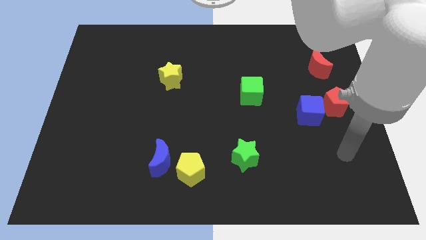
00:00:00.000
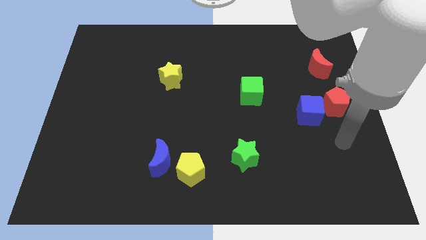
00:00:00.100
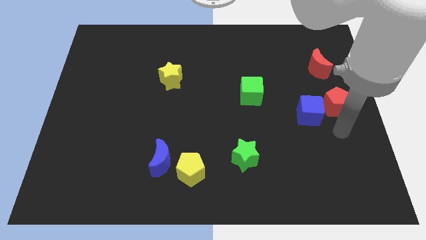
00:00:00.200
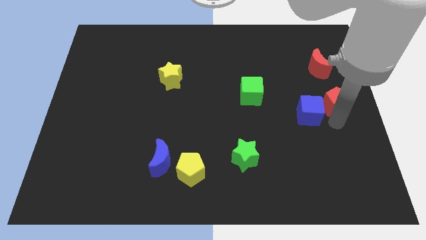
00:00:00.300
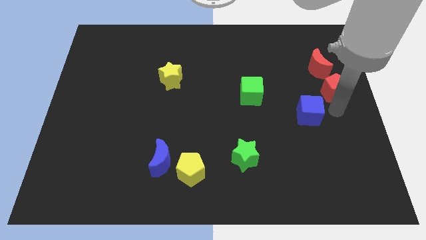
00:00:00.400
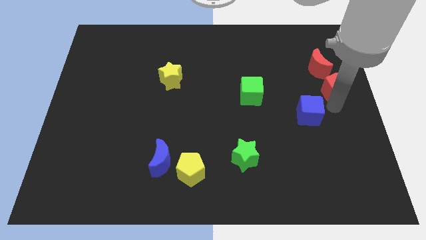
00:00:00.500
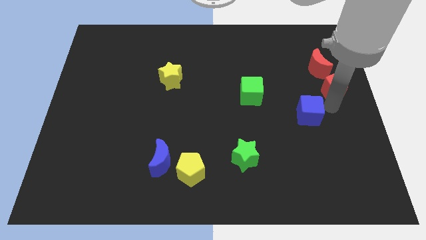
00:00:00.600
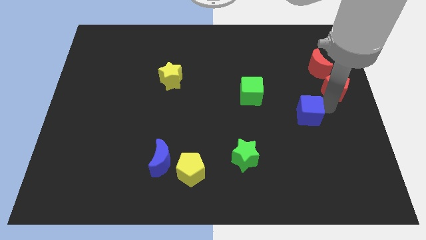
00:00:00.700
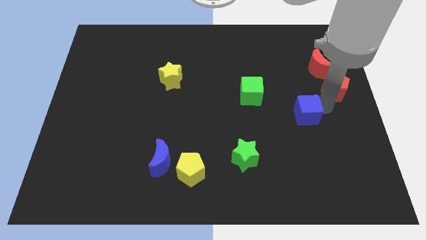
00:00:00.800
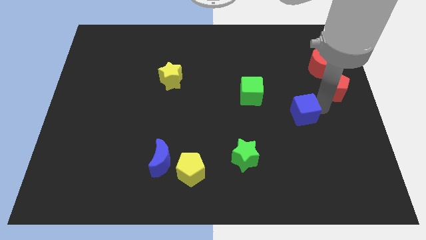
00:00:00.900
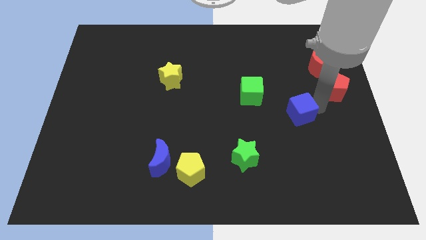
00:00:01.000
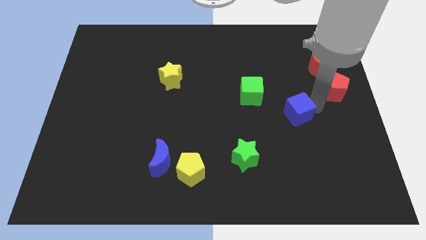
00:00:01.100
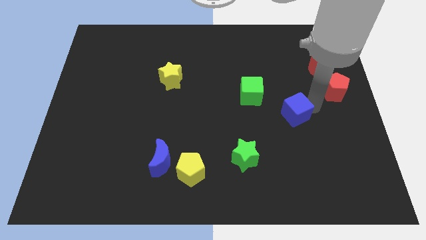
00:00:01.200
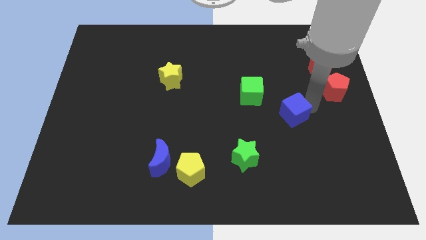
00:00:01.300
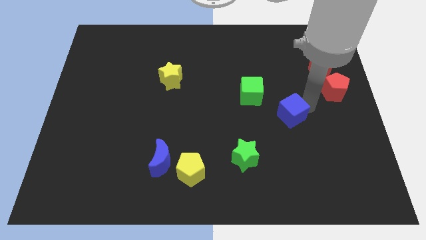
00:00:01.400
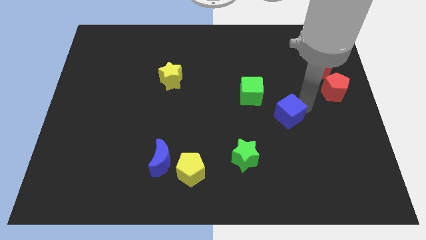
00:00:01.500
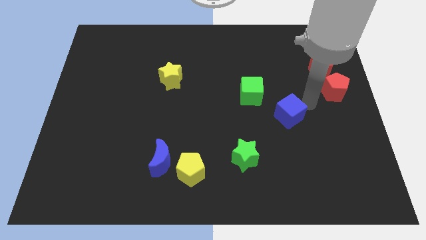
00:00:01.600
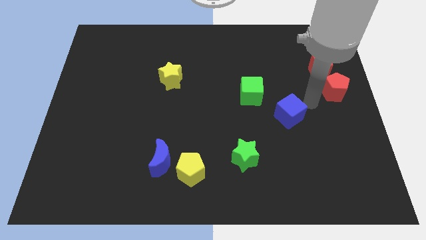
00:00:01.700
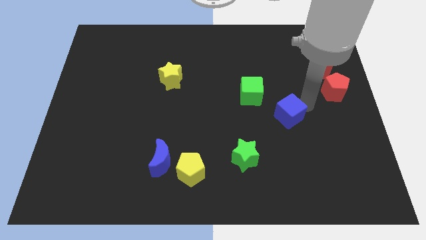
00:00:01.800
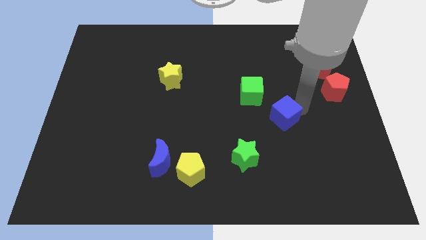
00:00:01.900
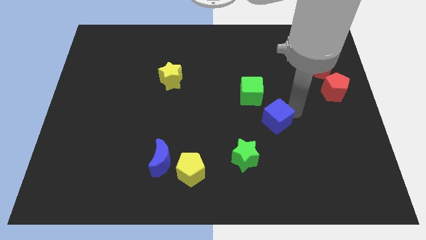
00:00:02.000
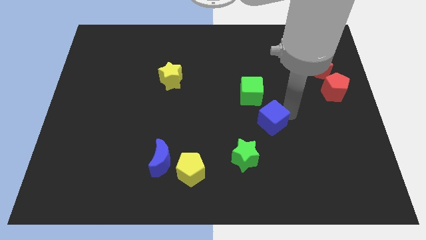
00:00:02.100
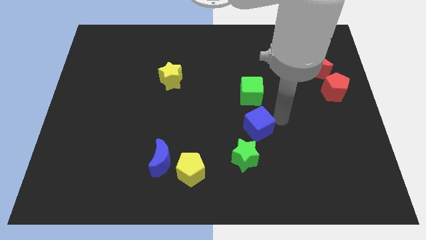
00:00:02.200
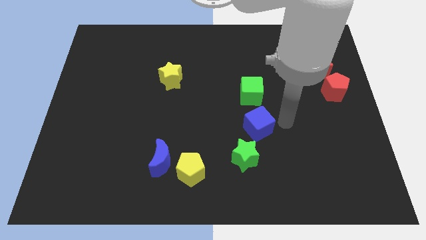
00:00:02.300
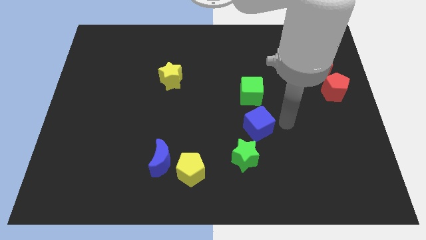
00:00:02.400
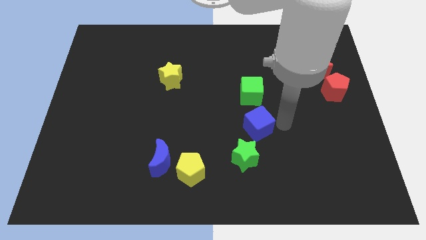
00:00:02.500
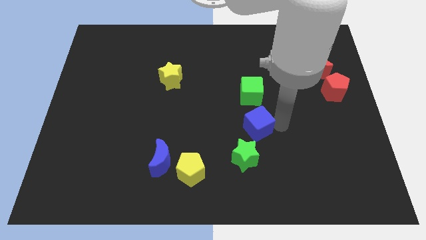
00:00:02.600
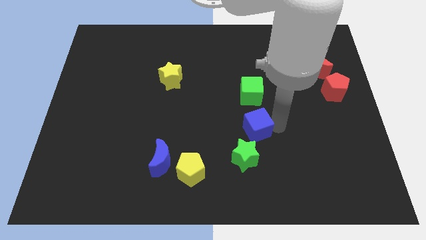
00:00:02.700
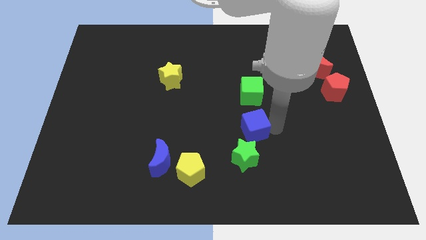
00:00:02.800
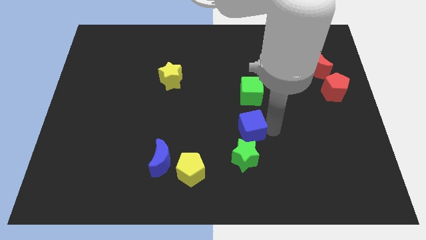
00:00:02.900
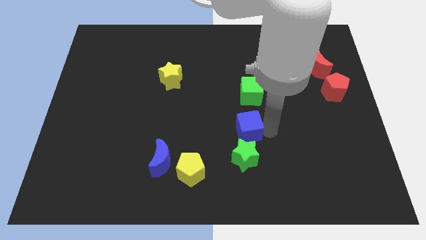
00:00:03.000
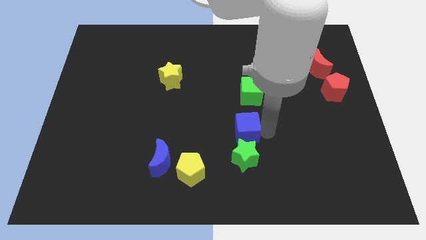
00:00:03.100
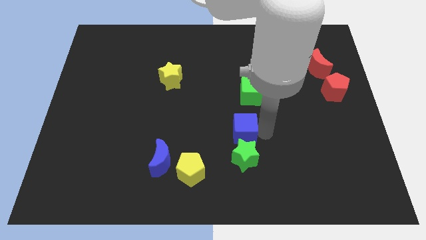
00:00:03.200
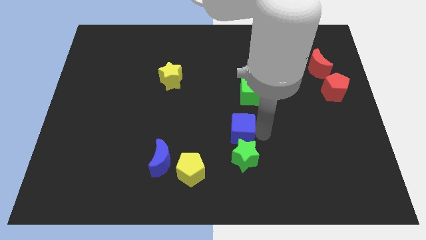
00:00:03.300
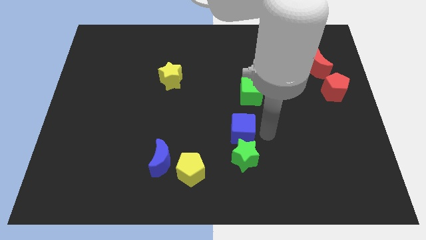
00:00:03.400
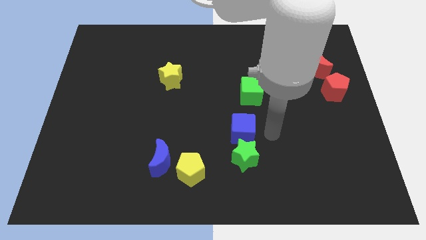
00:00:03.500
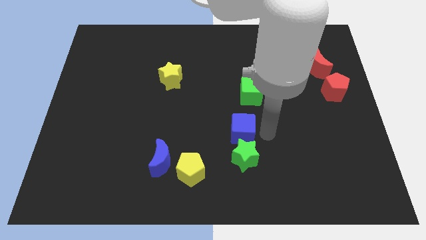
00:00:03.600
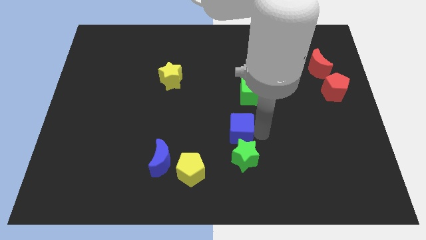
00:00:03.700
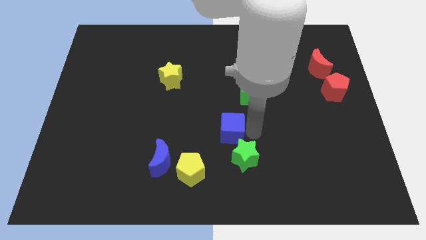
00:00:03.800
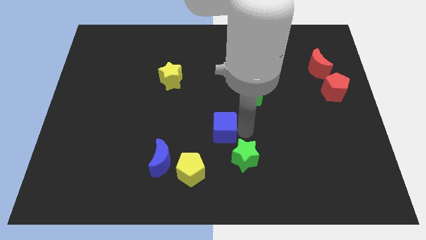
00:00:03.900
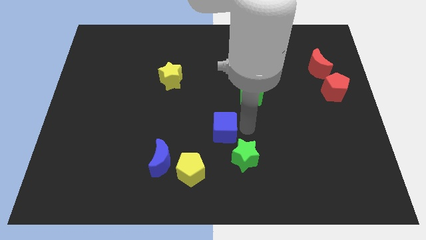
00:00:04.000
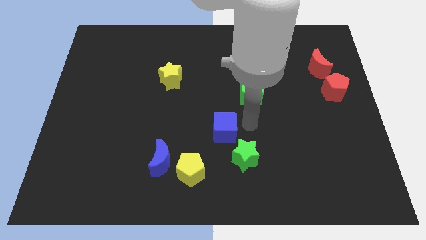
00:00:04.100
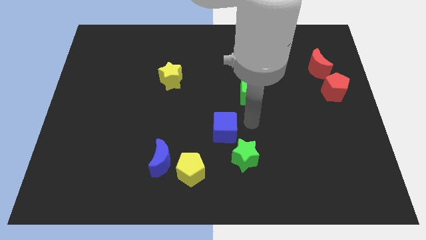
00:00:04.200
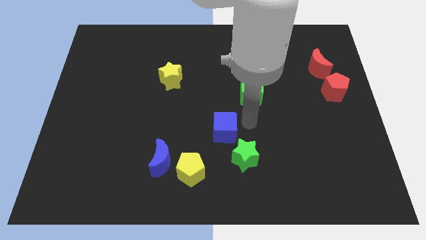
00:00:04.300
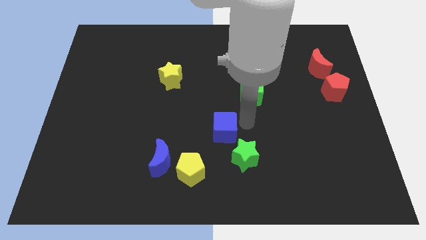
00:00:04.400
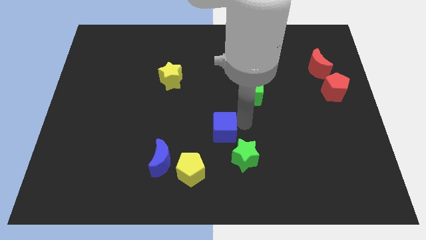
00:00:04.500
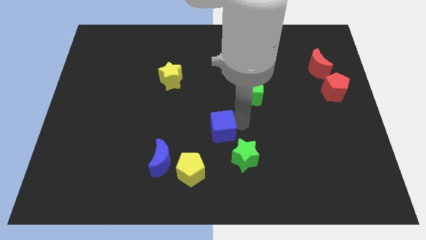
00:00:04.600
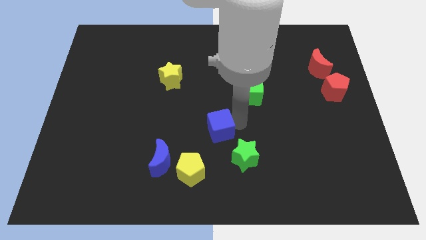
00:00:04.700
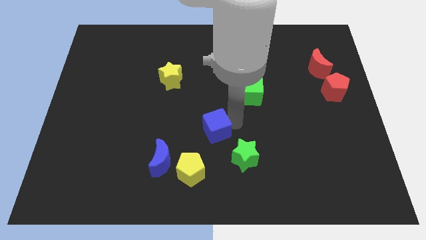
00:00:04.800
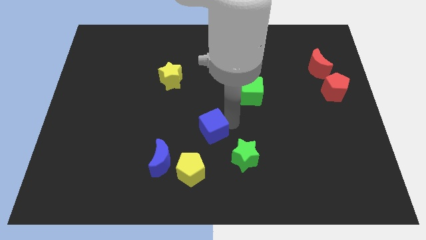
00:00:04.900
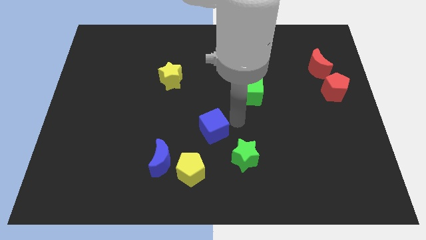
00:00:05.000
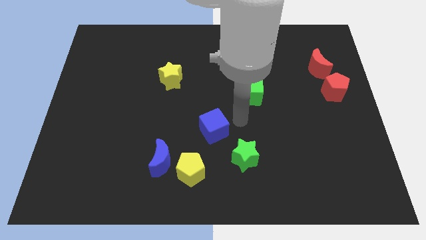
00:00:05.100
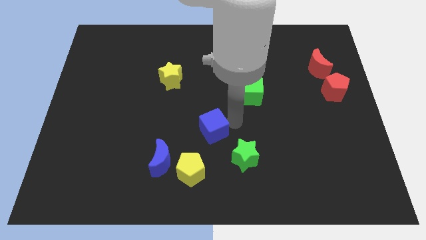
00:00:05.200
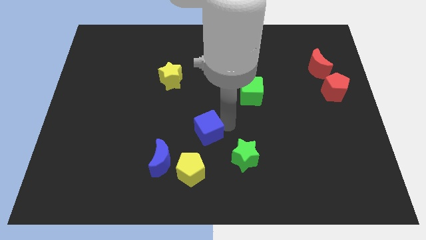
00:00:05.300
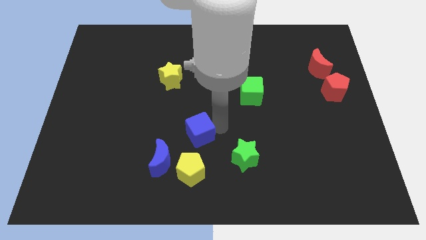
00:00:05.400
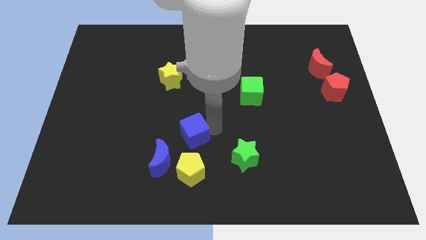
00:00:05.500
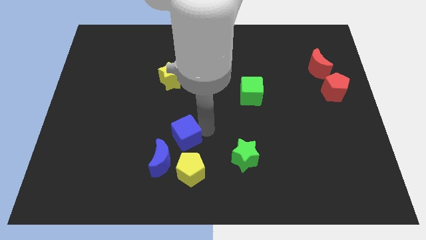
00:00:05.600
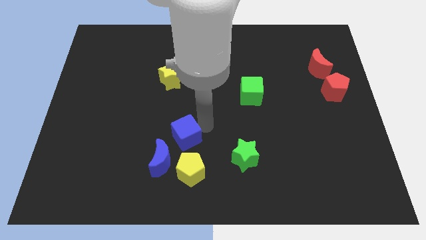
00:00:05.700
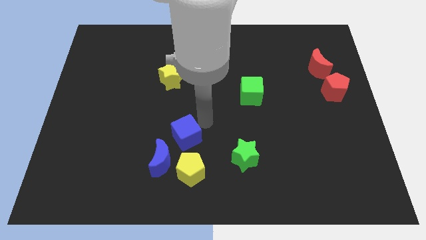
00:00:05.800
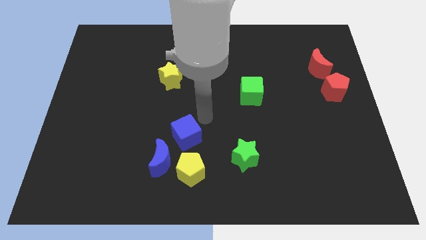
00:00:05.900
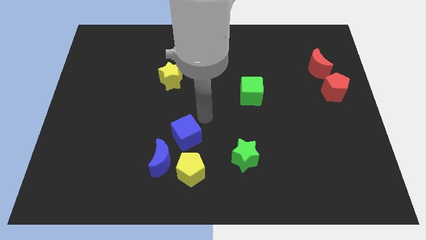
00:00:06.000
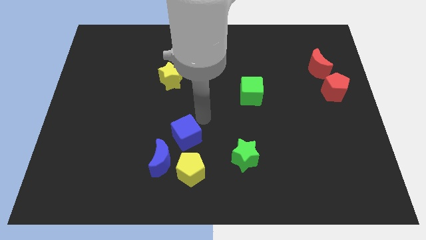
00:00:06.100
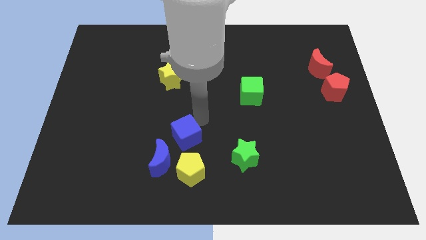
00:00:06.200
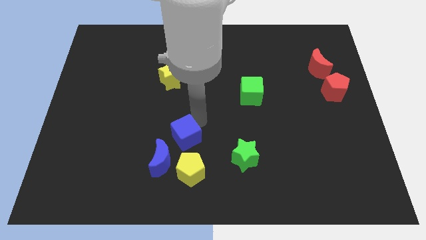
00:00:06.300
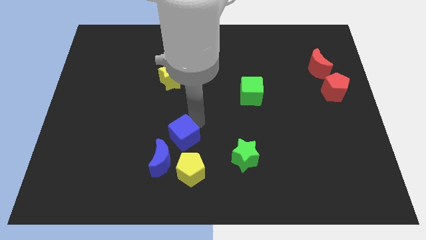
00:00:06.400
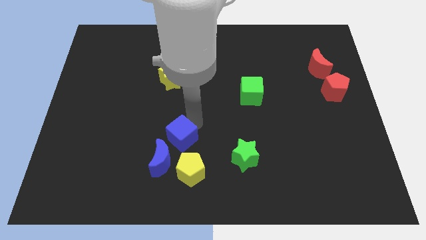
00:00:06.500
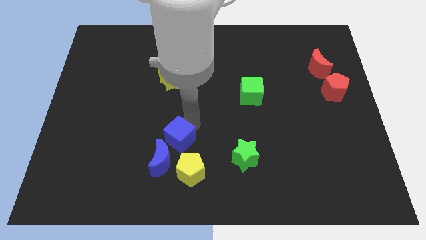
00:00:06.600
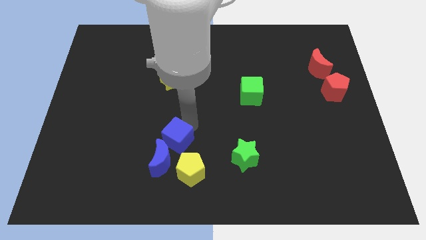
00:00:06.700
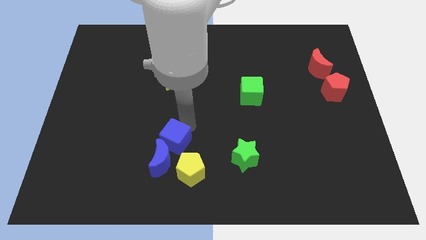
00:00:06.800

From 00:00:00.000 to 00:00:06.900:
move the blue cube towards the blue moon
